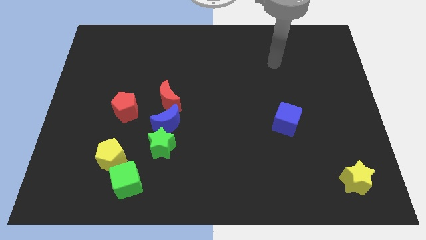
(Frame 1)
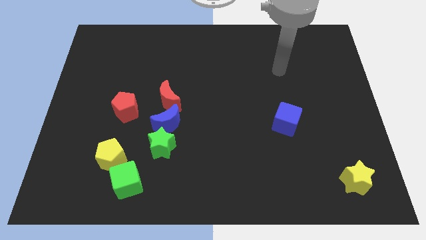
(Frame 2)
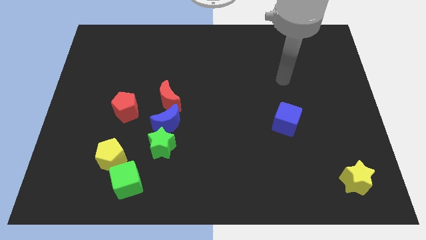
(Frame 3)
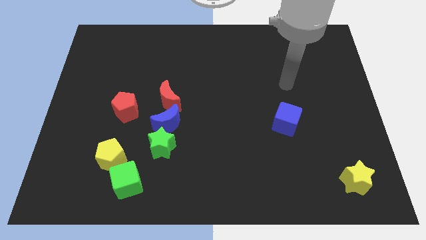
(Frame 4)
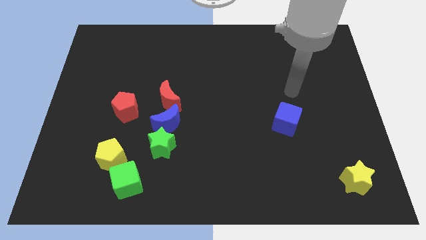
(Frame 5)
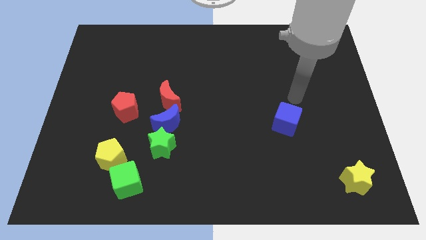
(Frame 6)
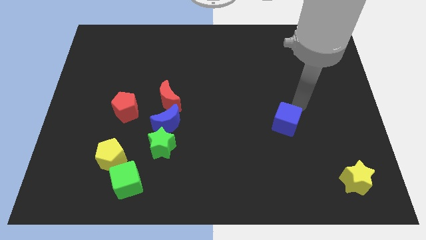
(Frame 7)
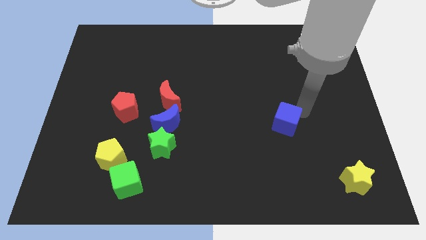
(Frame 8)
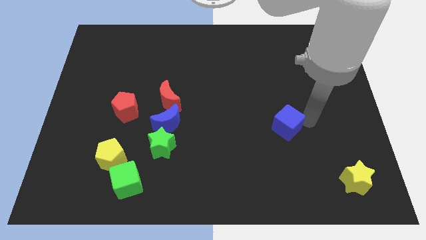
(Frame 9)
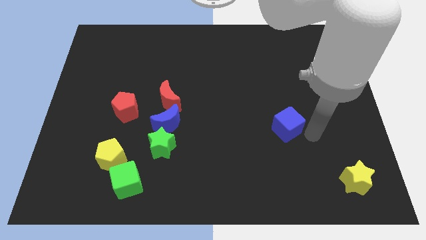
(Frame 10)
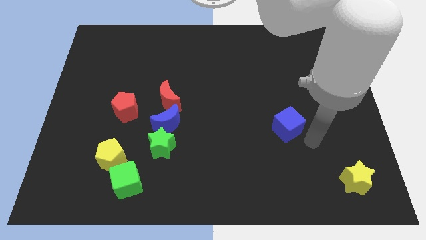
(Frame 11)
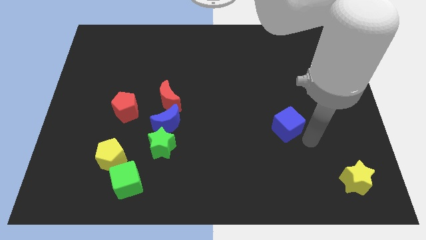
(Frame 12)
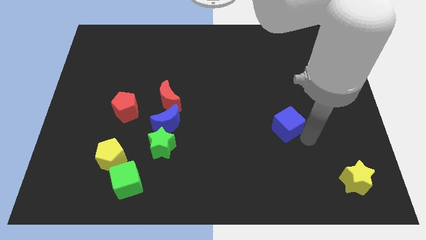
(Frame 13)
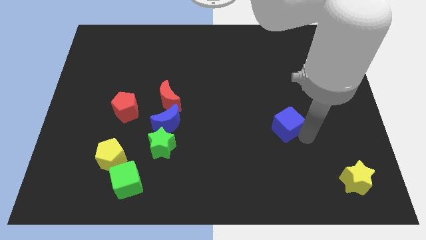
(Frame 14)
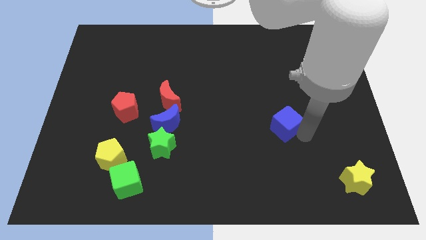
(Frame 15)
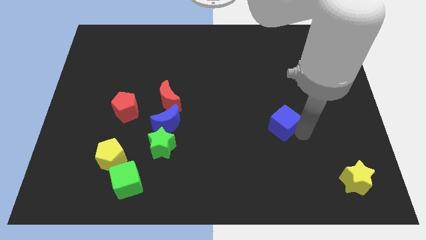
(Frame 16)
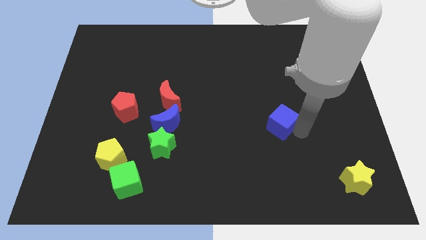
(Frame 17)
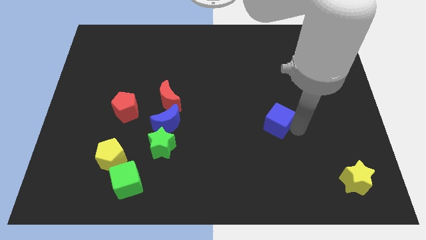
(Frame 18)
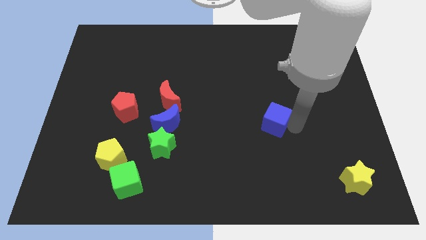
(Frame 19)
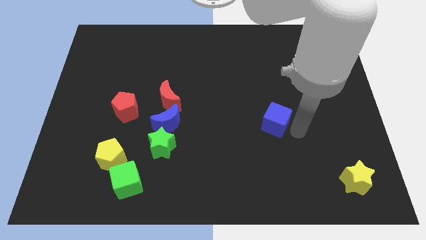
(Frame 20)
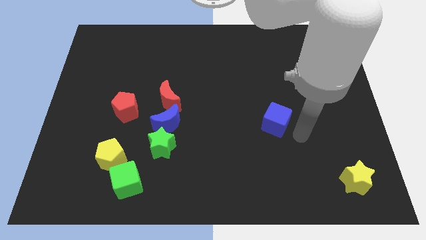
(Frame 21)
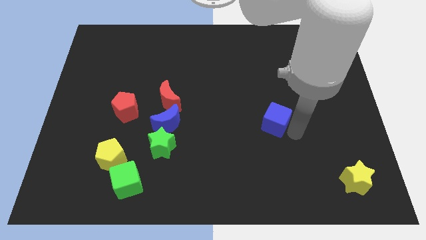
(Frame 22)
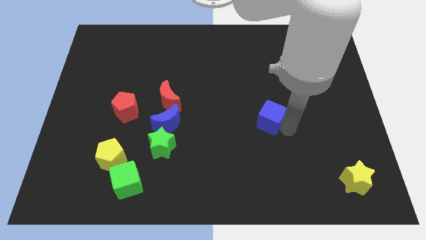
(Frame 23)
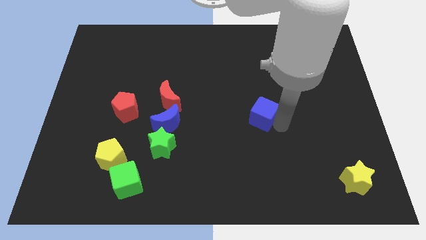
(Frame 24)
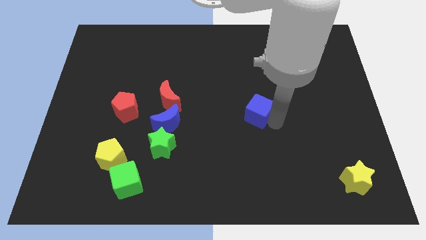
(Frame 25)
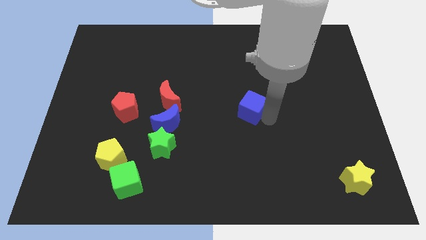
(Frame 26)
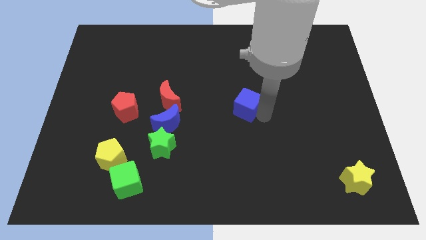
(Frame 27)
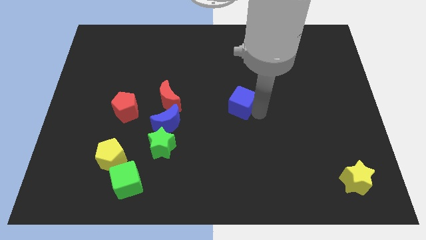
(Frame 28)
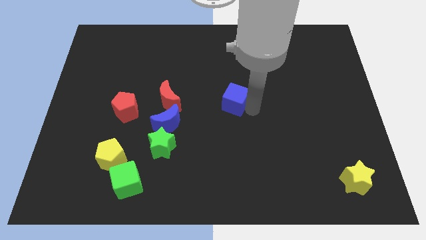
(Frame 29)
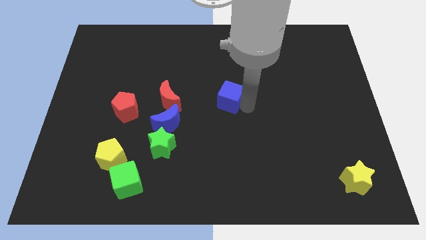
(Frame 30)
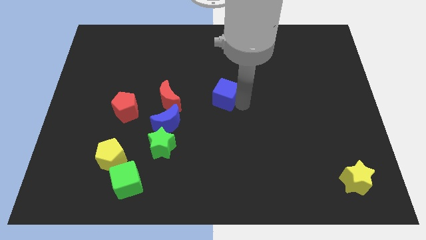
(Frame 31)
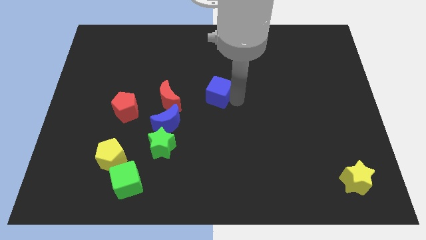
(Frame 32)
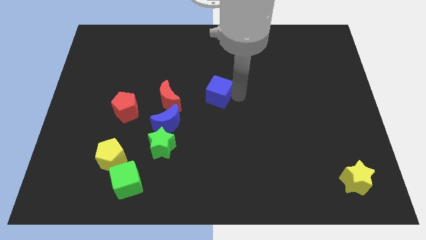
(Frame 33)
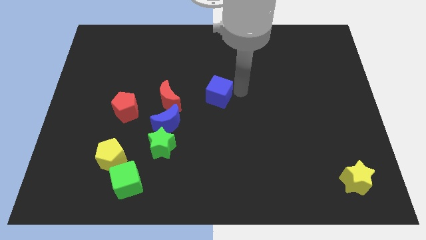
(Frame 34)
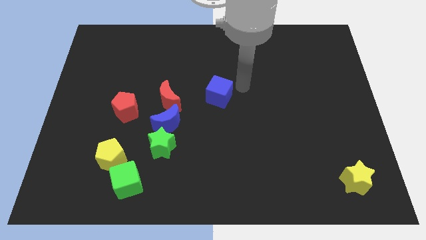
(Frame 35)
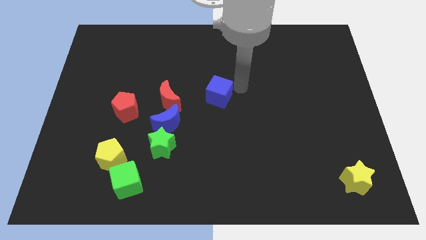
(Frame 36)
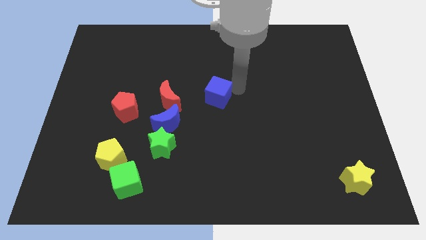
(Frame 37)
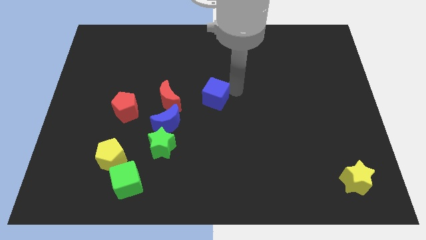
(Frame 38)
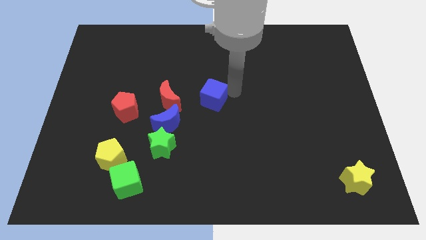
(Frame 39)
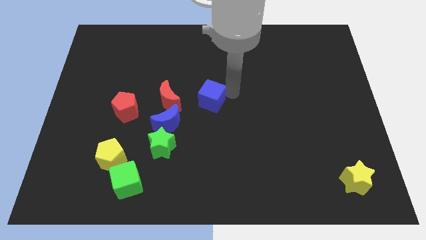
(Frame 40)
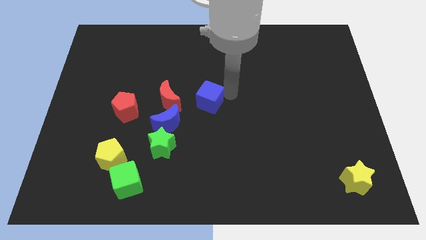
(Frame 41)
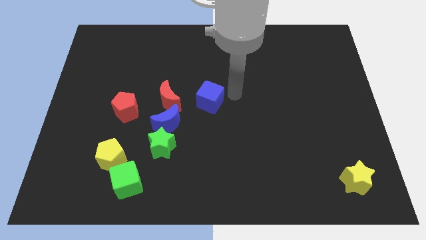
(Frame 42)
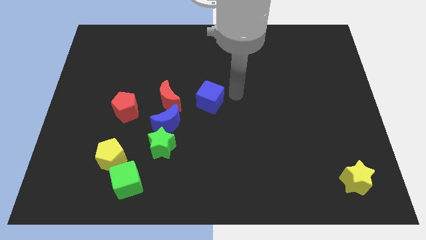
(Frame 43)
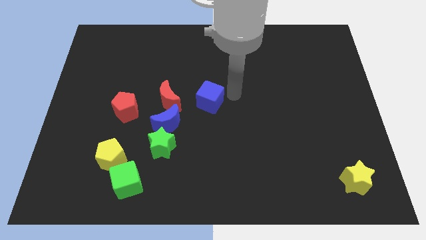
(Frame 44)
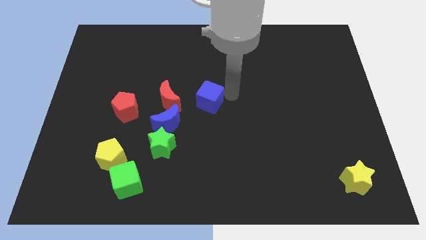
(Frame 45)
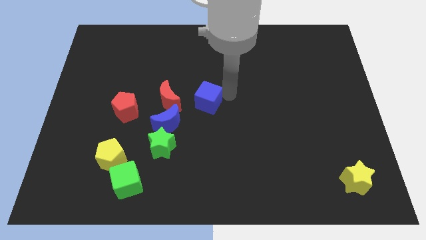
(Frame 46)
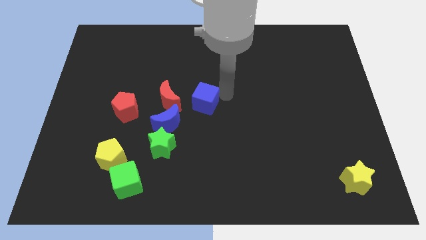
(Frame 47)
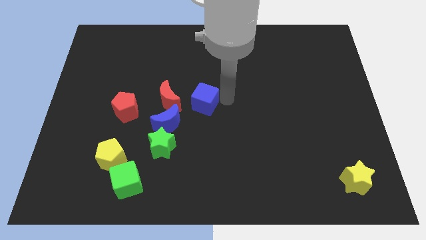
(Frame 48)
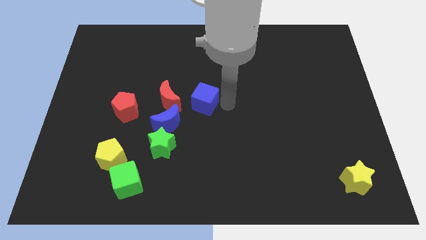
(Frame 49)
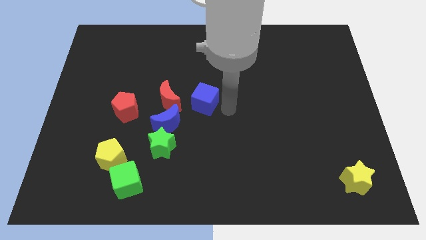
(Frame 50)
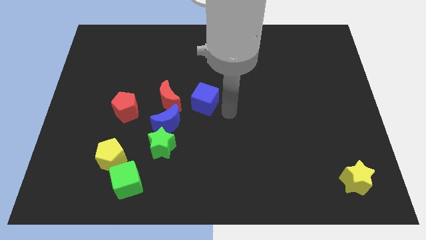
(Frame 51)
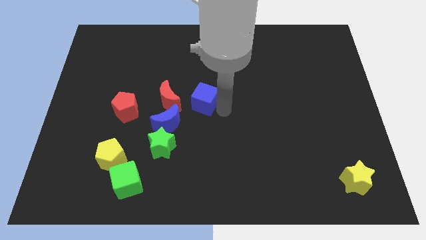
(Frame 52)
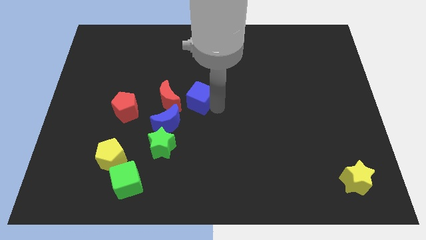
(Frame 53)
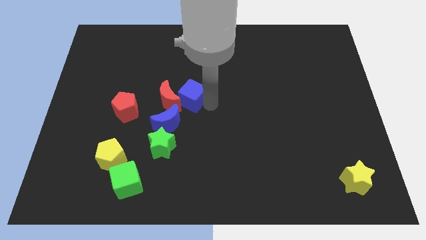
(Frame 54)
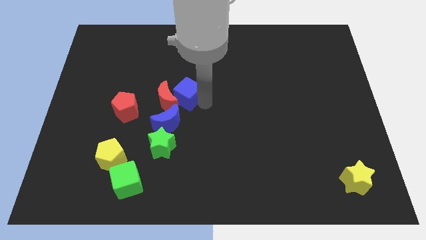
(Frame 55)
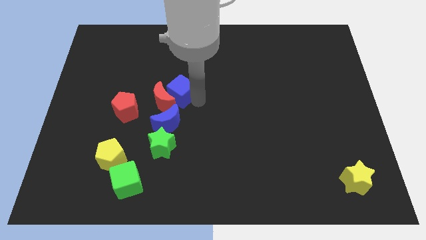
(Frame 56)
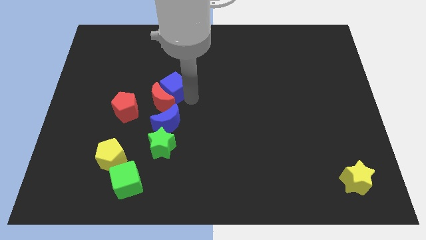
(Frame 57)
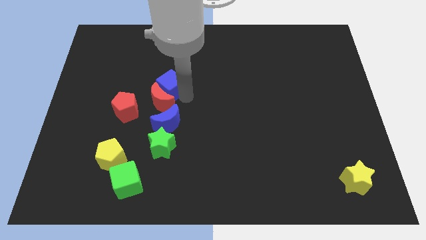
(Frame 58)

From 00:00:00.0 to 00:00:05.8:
move the blue cube to the top left side of the red moon

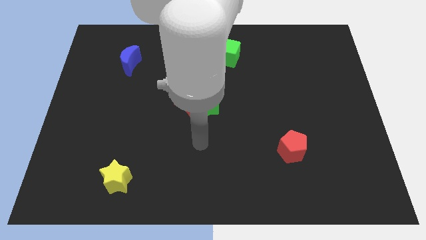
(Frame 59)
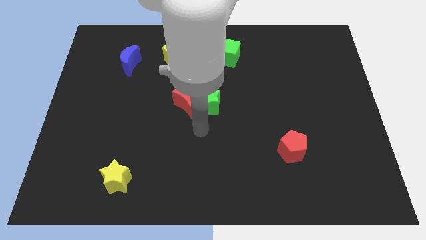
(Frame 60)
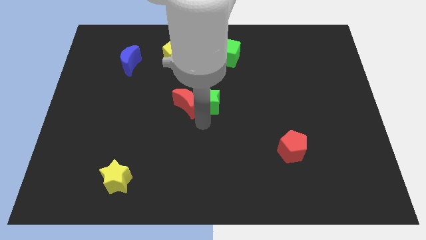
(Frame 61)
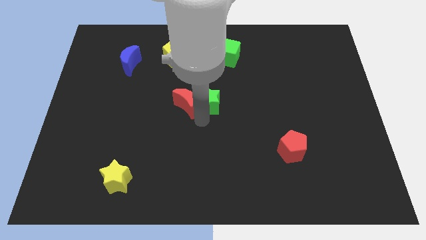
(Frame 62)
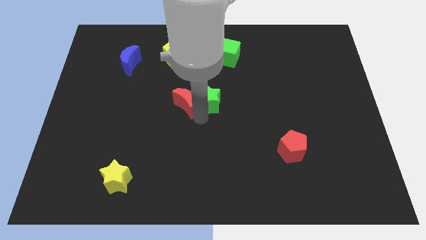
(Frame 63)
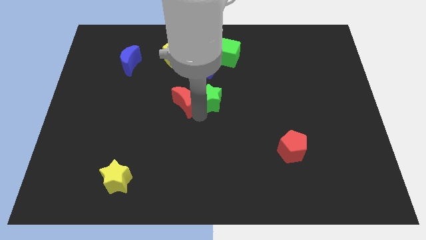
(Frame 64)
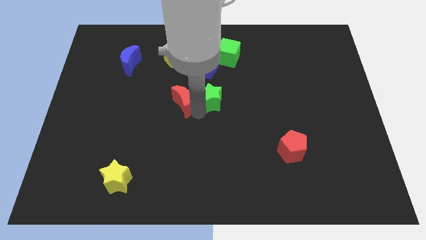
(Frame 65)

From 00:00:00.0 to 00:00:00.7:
move the red moon to the bottom side of the yellow pentagon

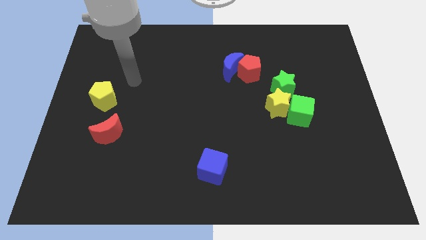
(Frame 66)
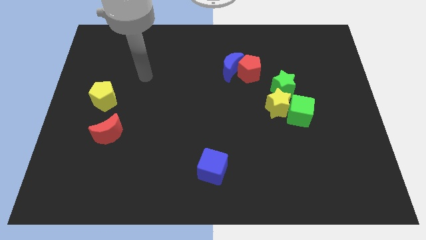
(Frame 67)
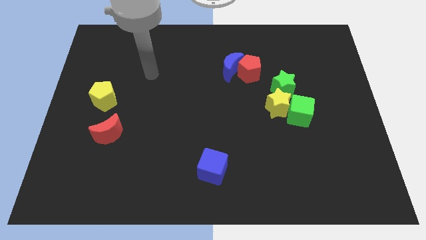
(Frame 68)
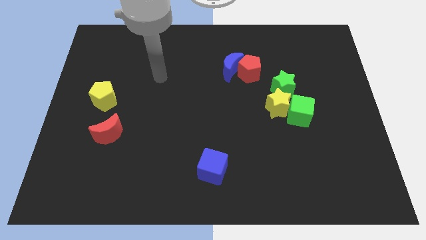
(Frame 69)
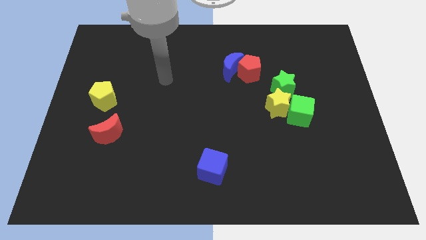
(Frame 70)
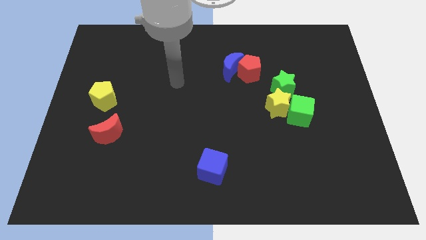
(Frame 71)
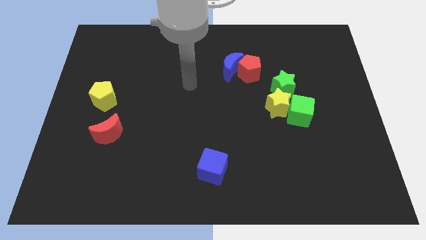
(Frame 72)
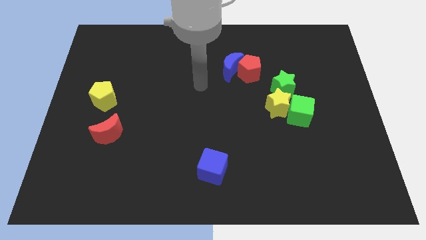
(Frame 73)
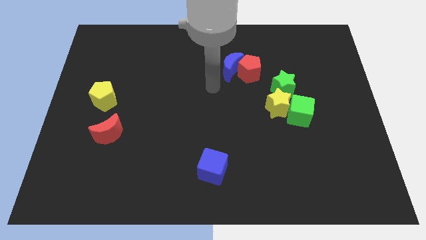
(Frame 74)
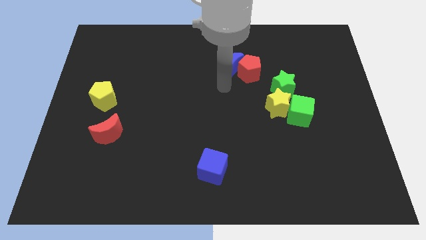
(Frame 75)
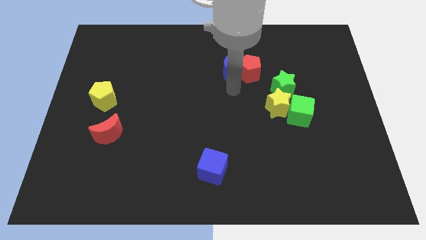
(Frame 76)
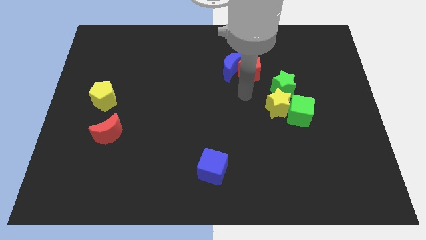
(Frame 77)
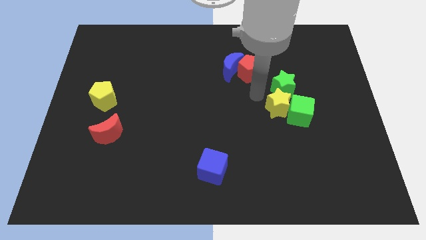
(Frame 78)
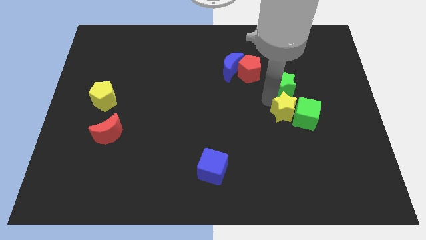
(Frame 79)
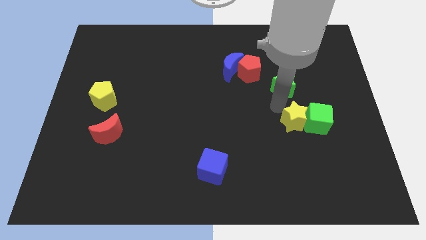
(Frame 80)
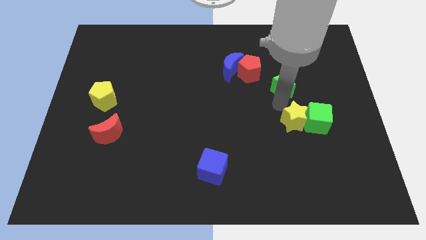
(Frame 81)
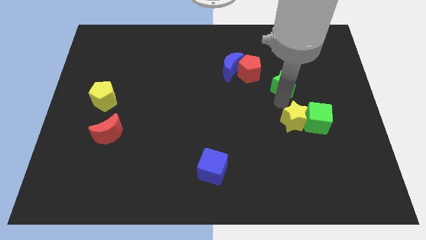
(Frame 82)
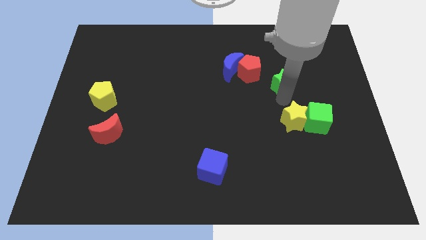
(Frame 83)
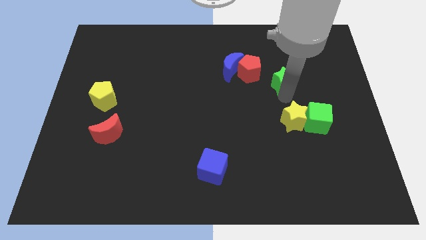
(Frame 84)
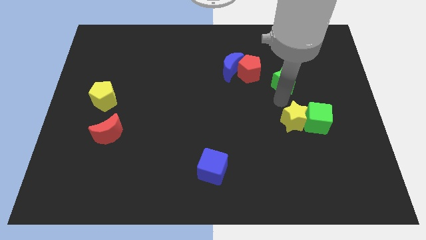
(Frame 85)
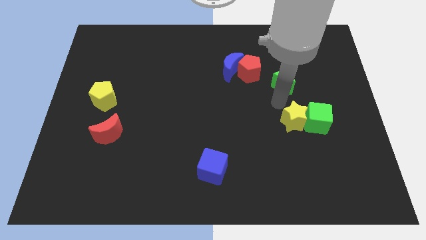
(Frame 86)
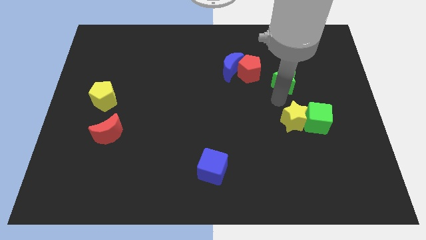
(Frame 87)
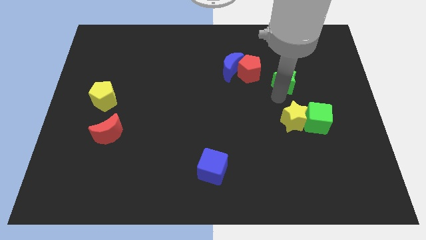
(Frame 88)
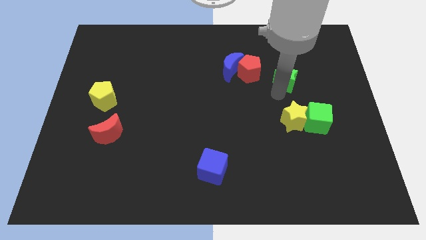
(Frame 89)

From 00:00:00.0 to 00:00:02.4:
push the green star to the right side of the blue moon
